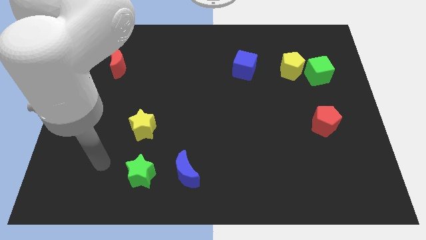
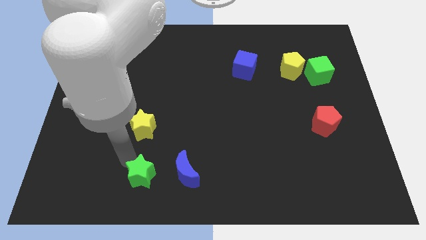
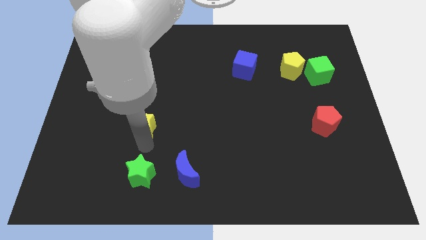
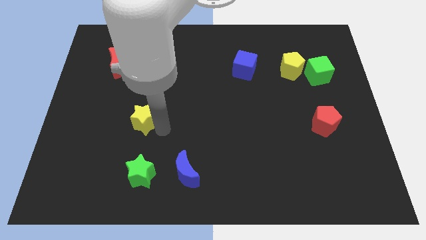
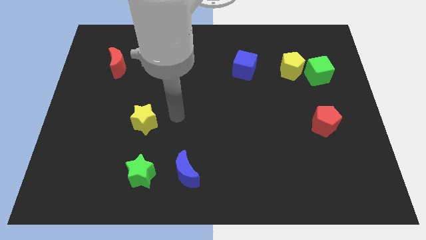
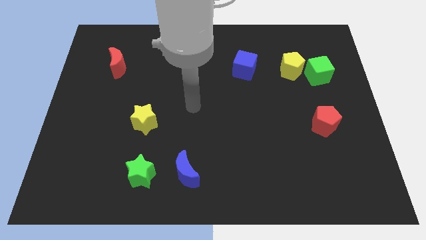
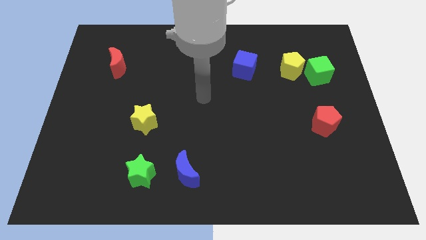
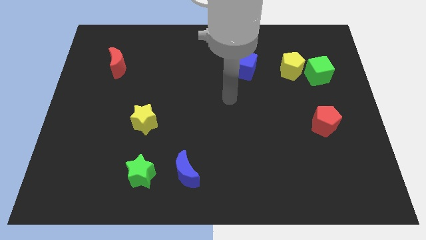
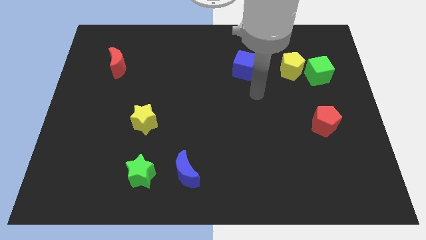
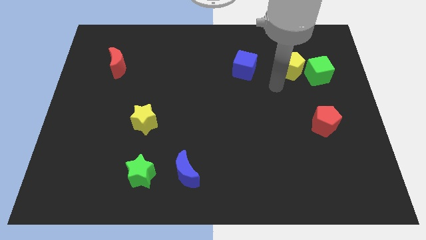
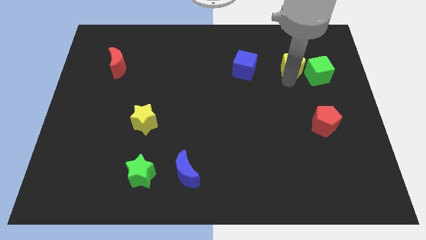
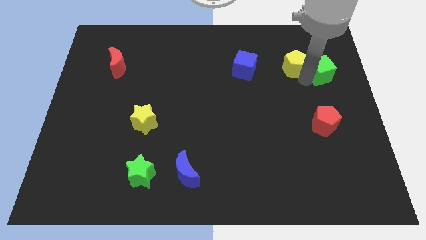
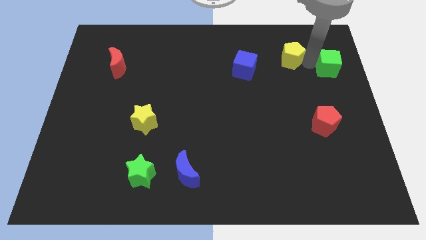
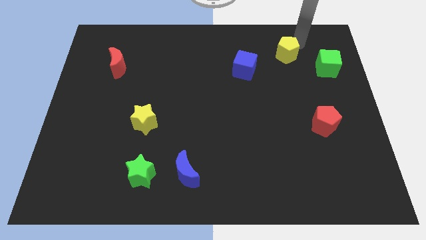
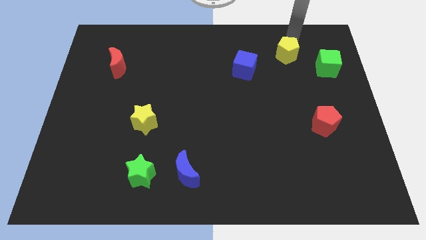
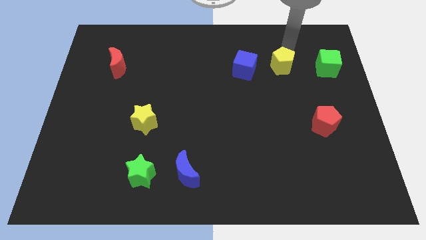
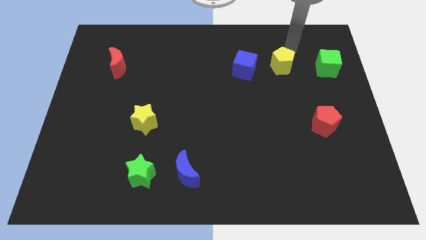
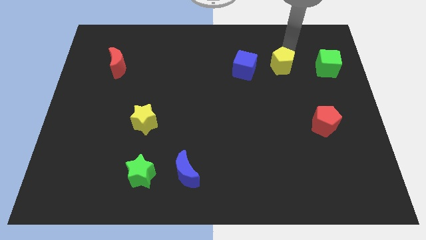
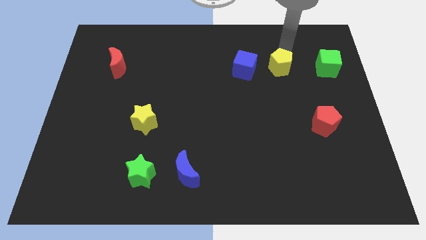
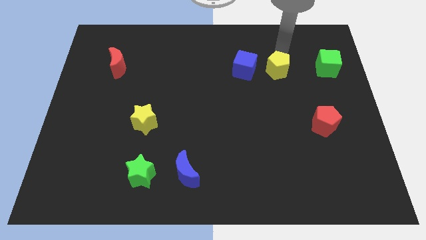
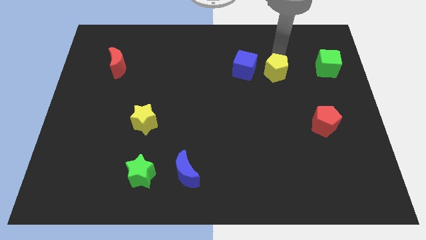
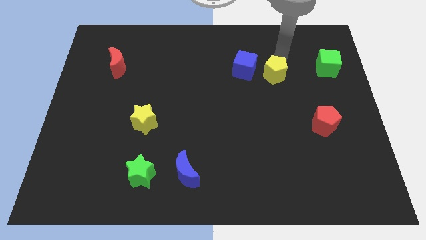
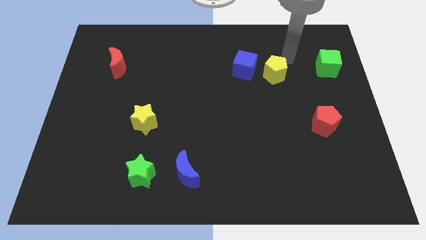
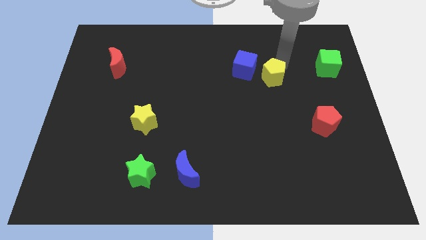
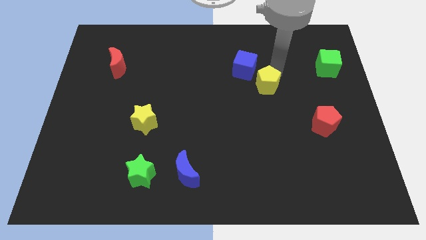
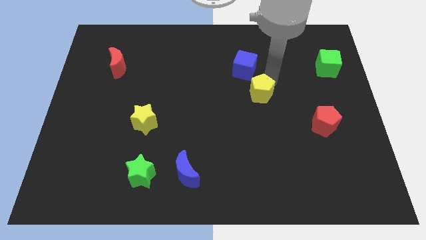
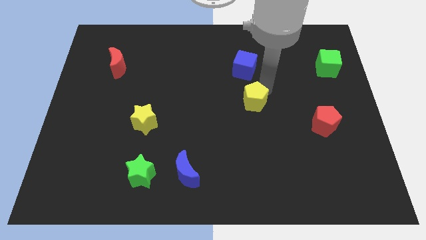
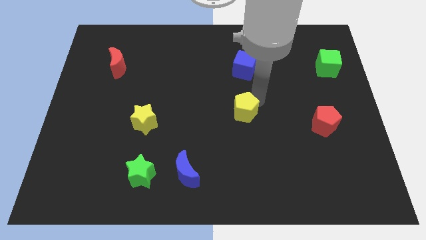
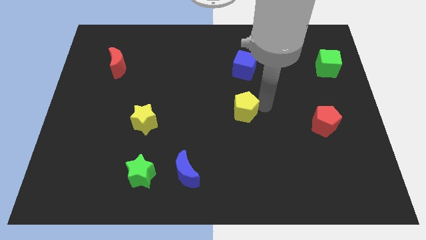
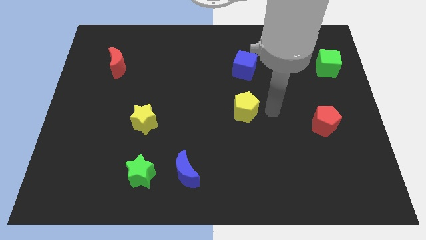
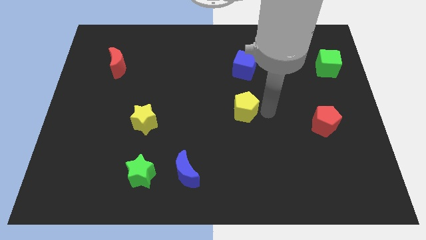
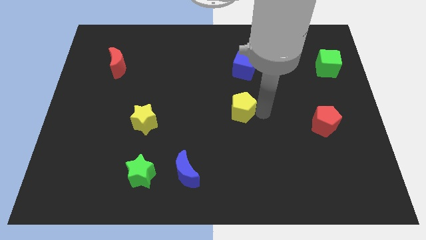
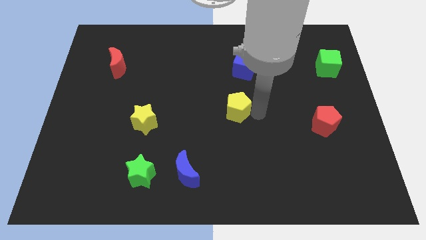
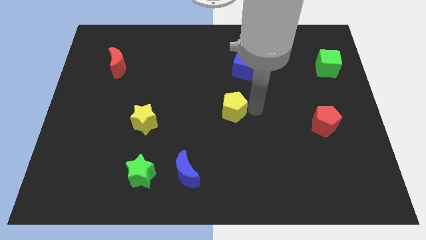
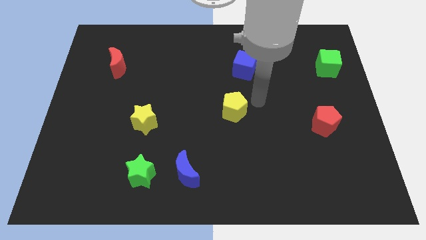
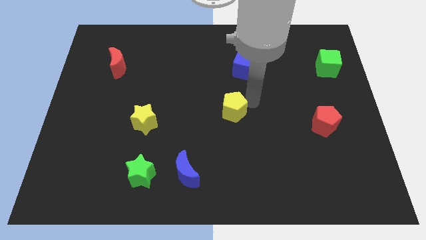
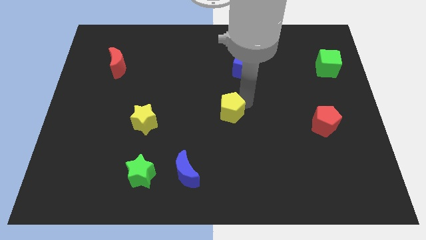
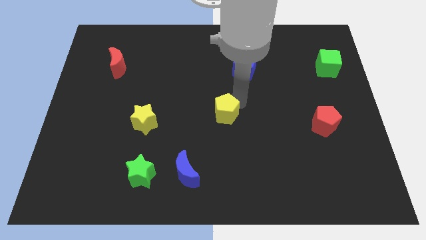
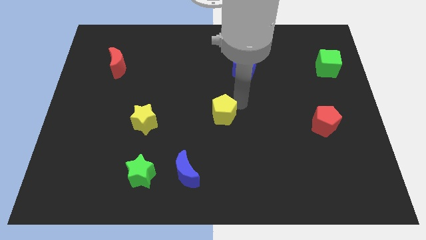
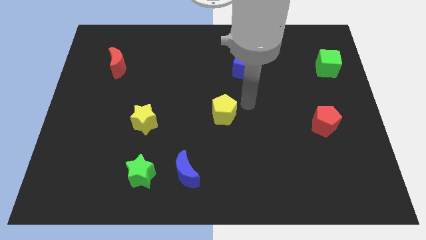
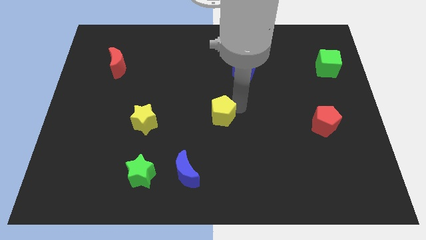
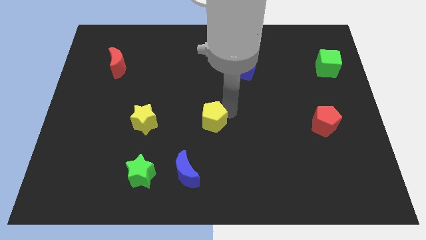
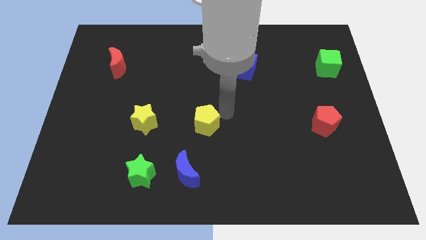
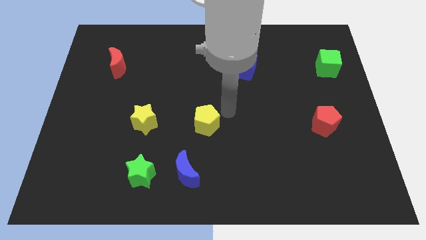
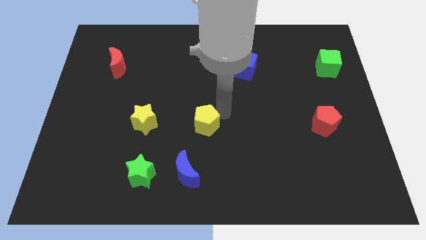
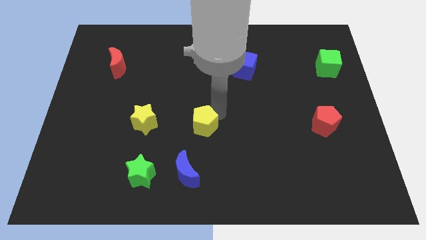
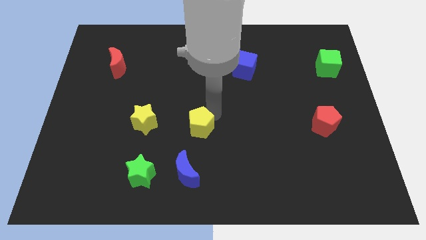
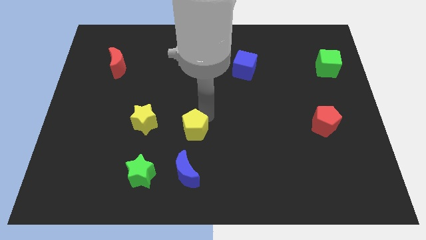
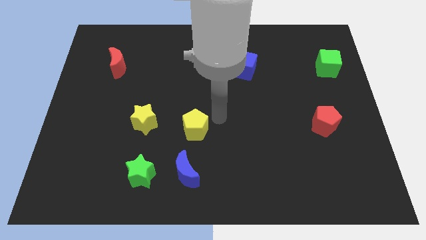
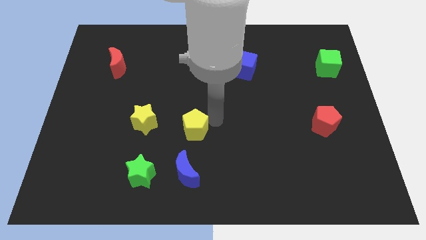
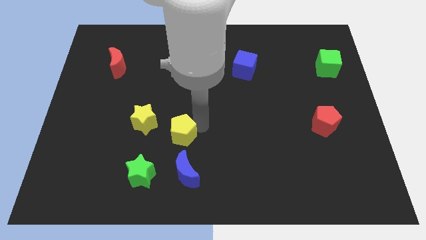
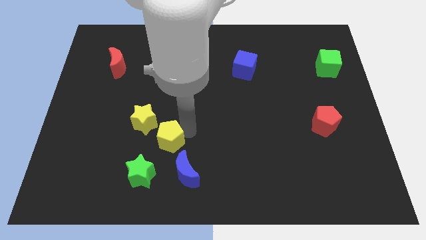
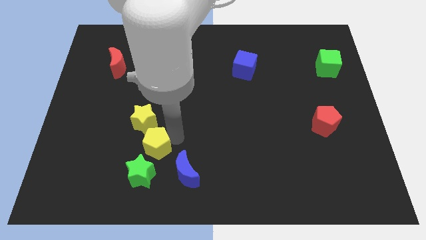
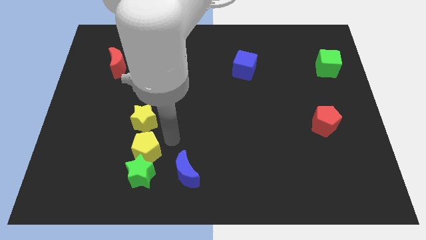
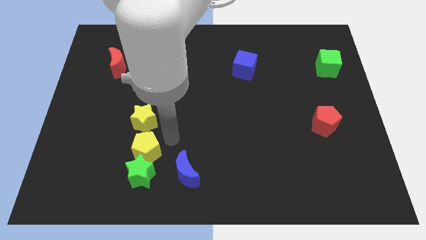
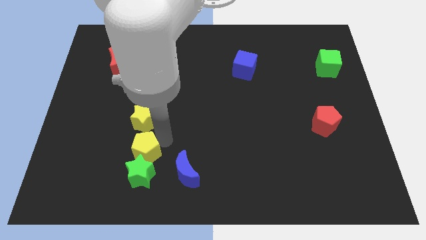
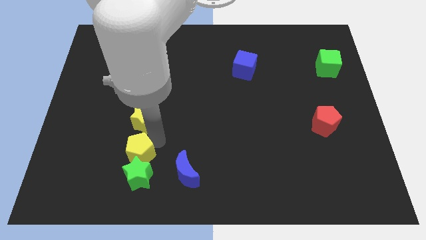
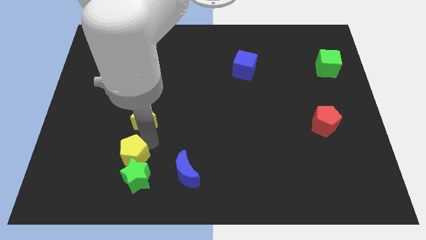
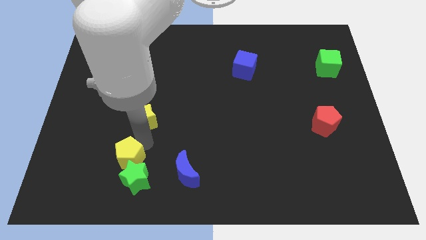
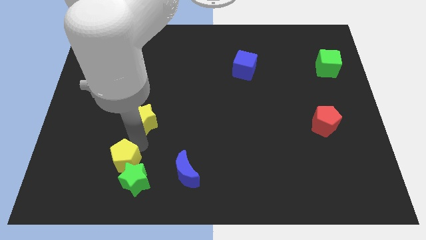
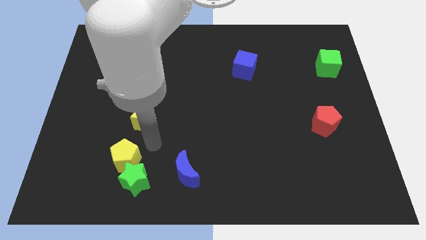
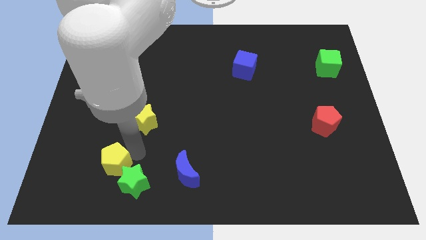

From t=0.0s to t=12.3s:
slide the yellow pentagon left of the green star
